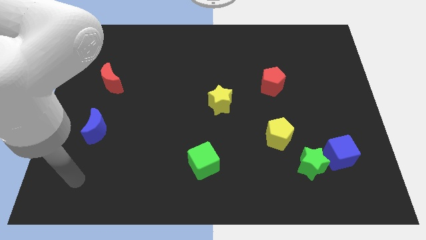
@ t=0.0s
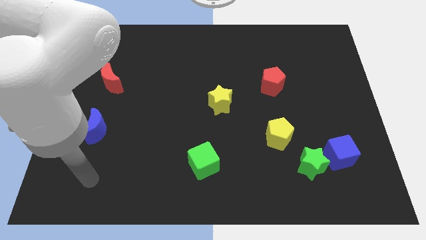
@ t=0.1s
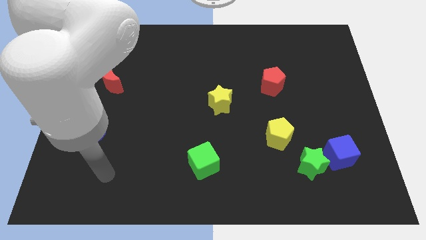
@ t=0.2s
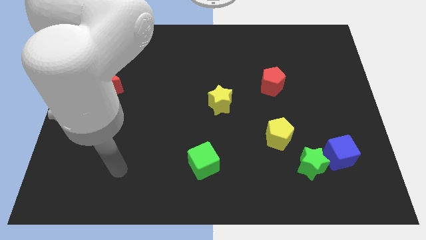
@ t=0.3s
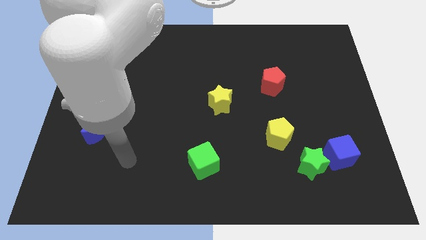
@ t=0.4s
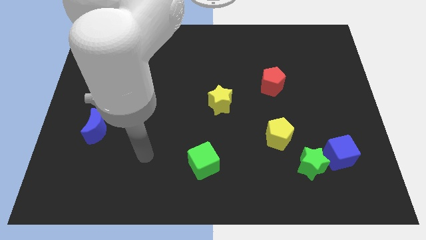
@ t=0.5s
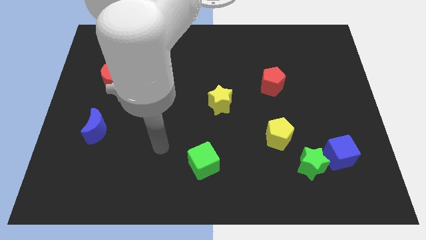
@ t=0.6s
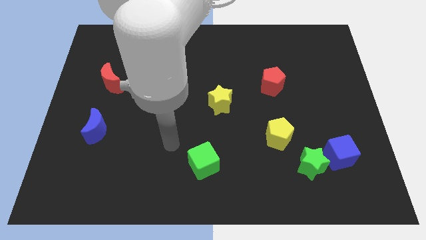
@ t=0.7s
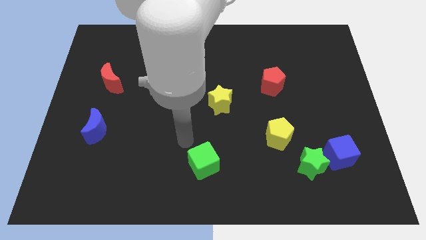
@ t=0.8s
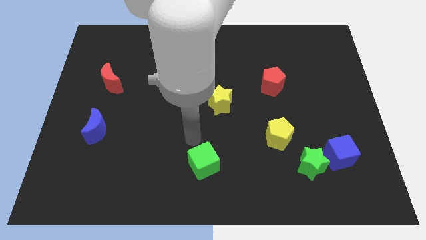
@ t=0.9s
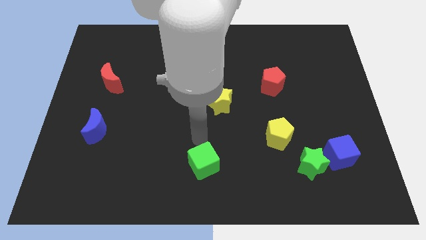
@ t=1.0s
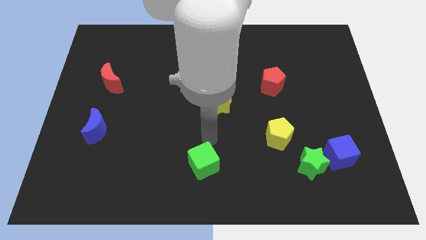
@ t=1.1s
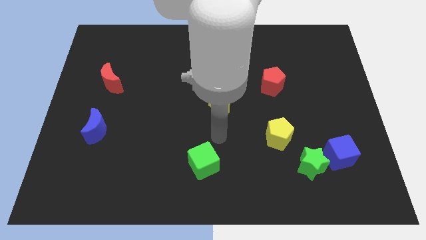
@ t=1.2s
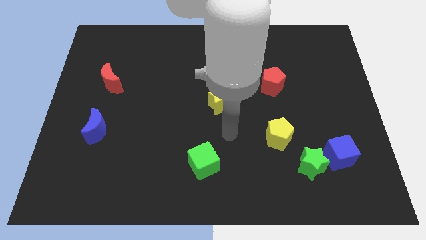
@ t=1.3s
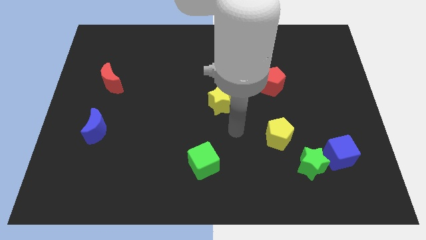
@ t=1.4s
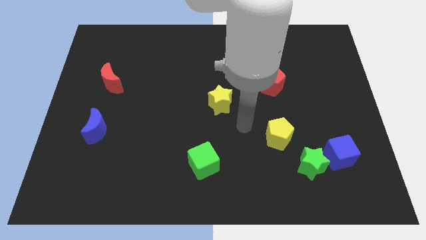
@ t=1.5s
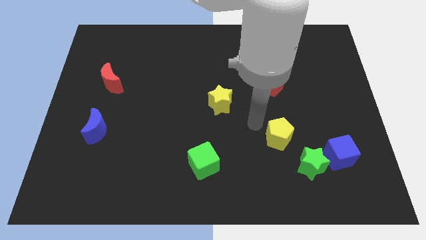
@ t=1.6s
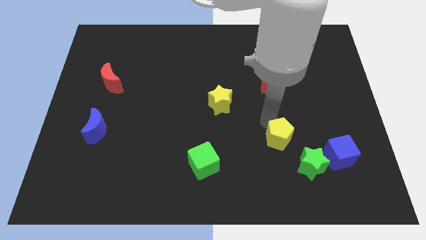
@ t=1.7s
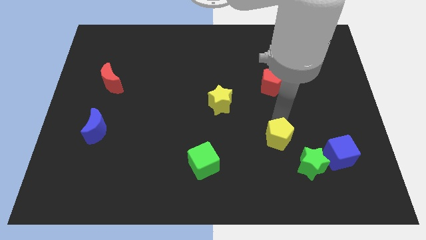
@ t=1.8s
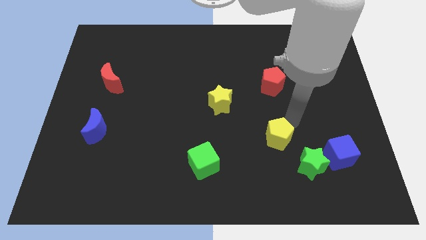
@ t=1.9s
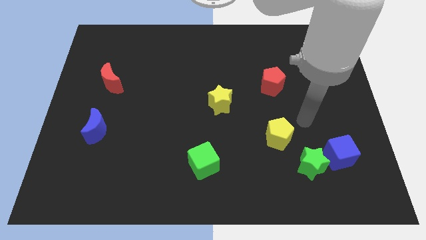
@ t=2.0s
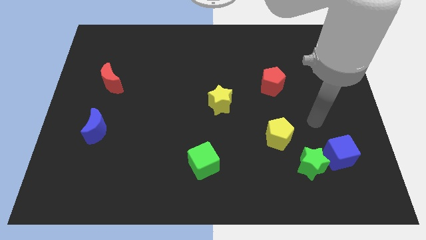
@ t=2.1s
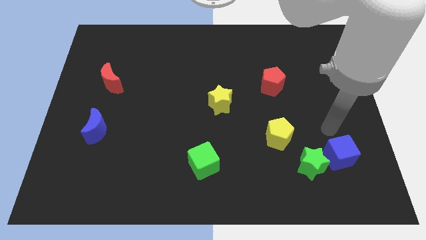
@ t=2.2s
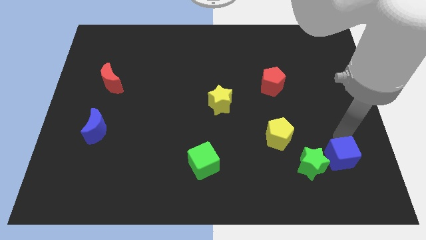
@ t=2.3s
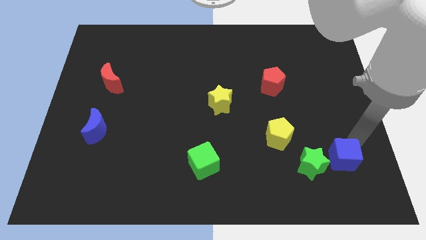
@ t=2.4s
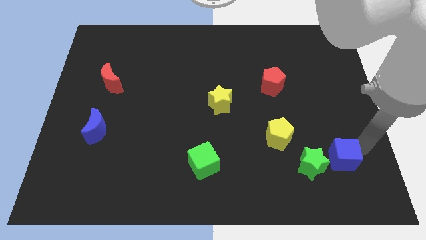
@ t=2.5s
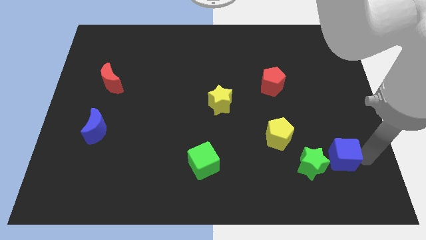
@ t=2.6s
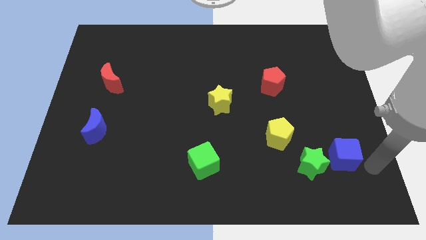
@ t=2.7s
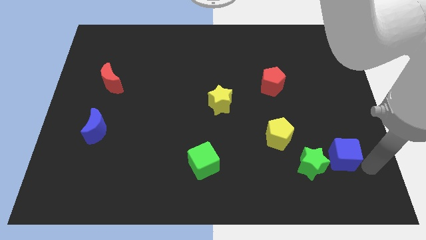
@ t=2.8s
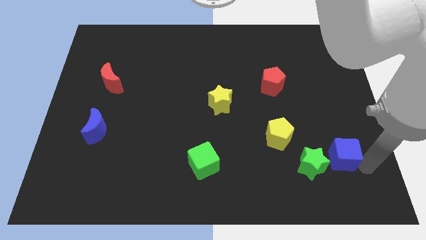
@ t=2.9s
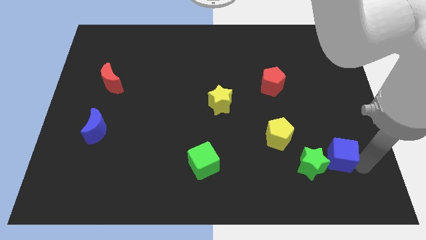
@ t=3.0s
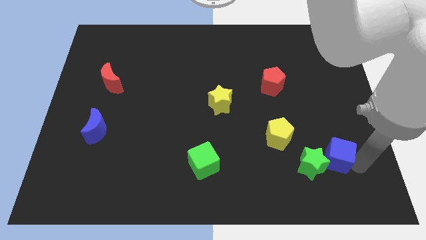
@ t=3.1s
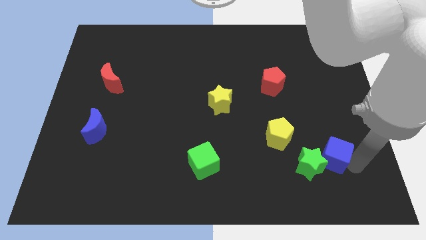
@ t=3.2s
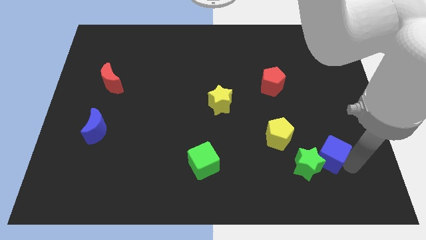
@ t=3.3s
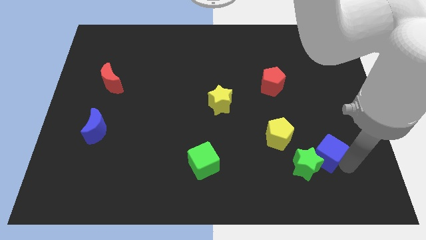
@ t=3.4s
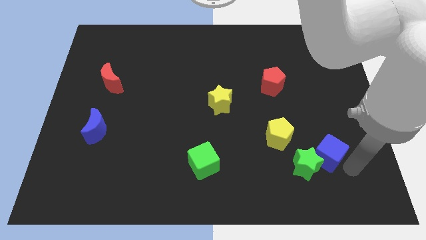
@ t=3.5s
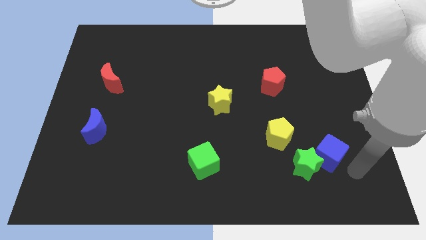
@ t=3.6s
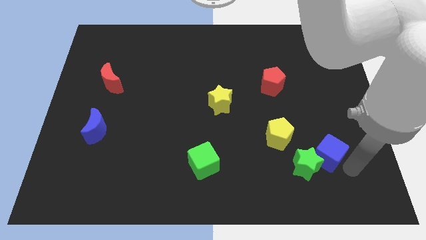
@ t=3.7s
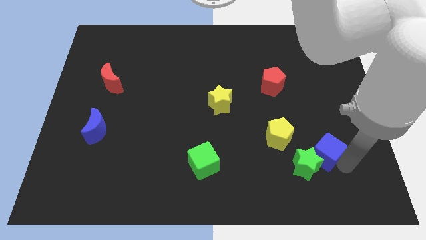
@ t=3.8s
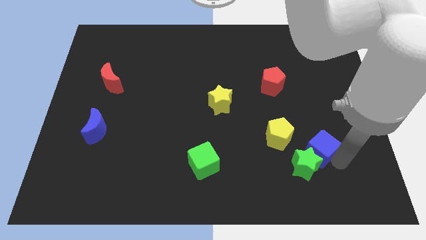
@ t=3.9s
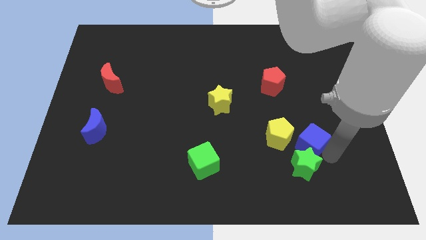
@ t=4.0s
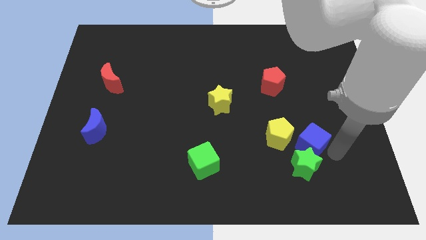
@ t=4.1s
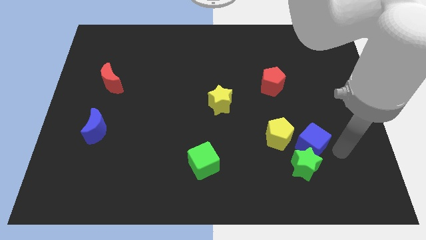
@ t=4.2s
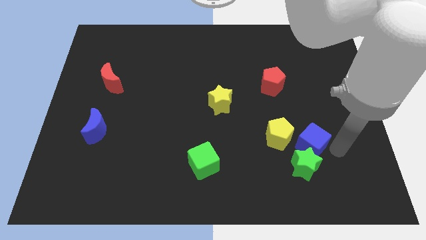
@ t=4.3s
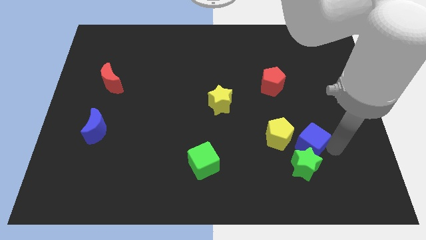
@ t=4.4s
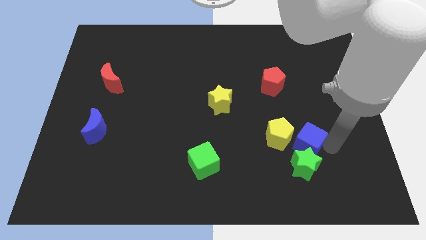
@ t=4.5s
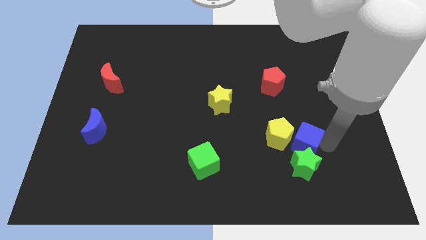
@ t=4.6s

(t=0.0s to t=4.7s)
move the blue cube close to the yellow pentagon

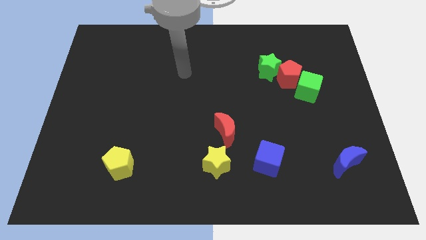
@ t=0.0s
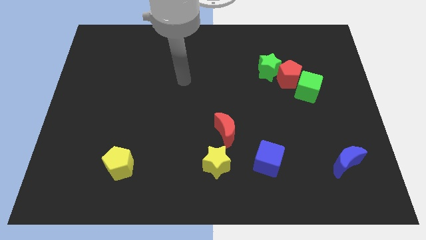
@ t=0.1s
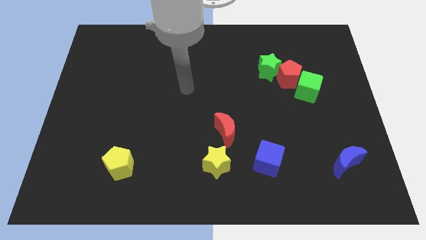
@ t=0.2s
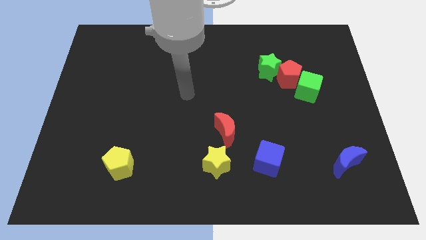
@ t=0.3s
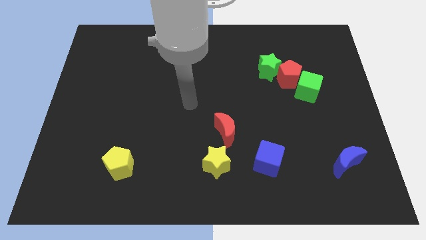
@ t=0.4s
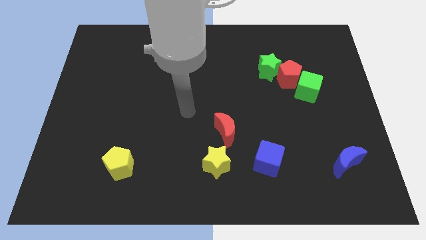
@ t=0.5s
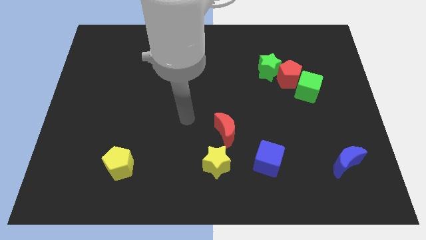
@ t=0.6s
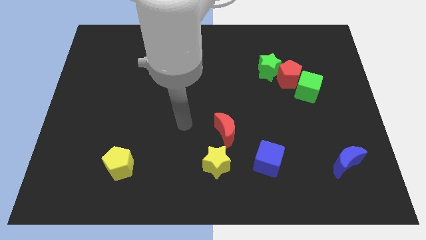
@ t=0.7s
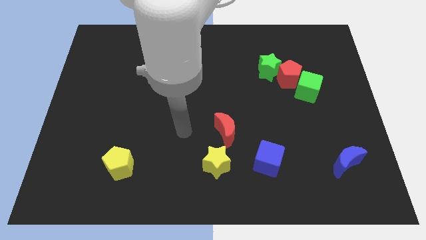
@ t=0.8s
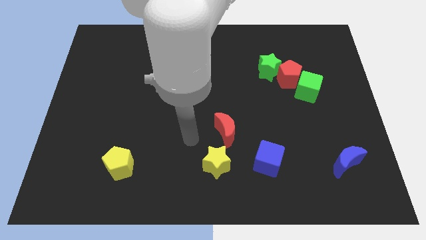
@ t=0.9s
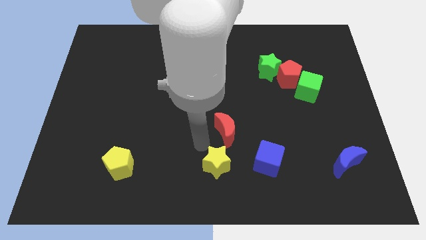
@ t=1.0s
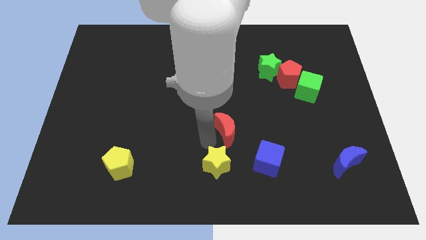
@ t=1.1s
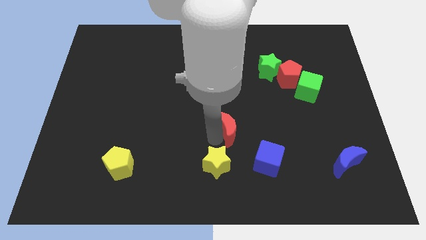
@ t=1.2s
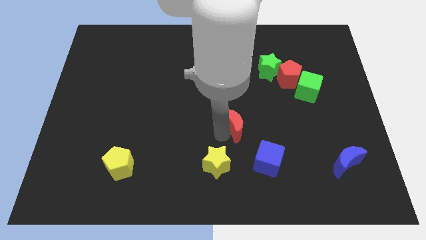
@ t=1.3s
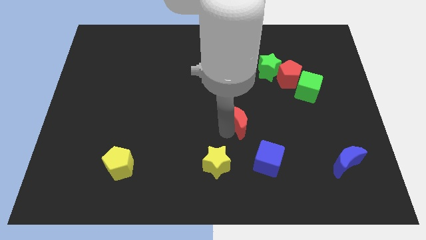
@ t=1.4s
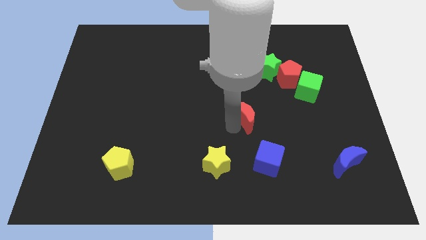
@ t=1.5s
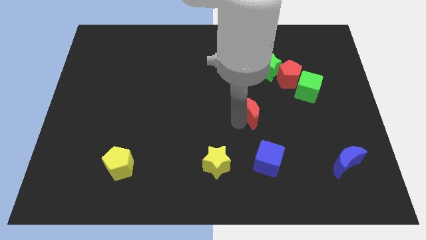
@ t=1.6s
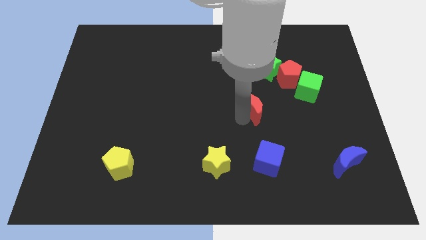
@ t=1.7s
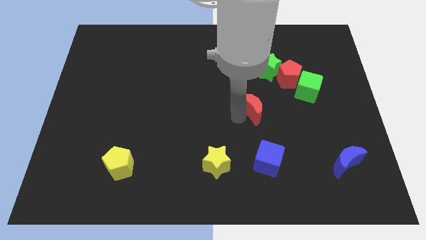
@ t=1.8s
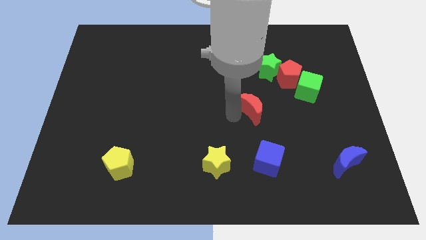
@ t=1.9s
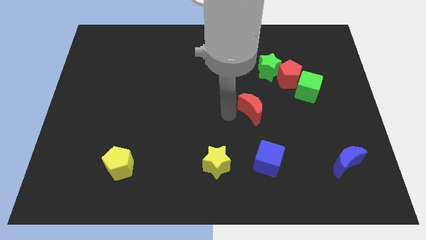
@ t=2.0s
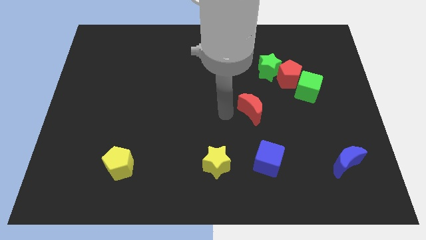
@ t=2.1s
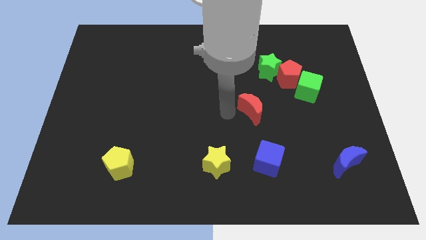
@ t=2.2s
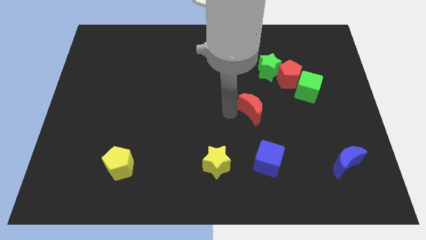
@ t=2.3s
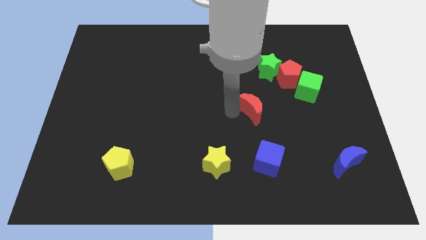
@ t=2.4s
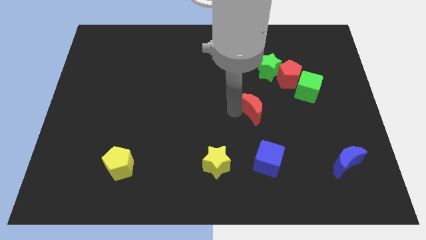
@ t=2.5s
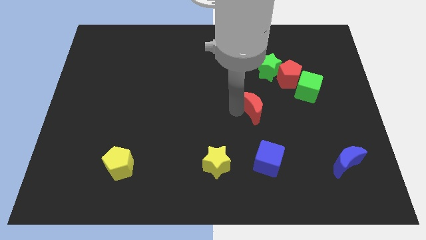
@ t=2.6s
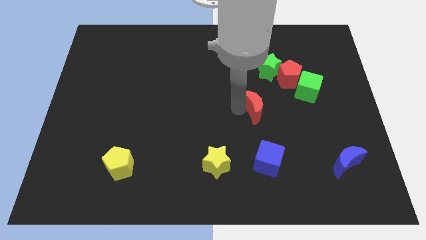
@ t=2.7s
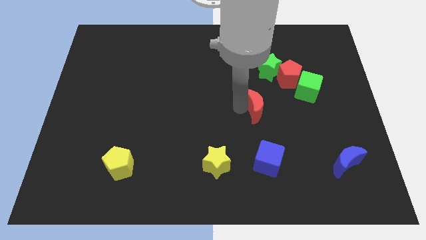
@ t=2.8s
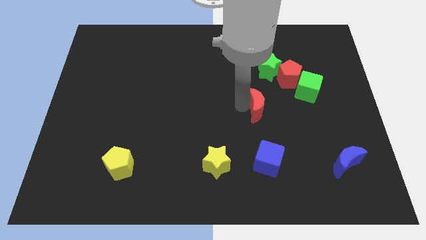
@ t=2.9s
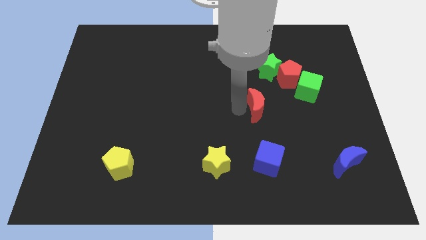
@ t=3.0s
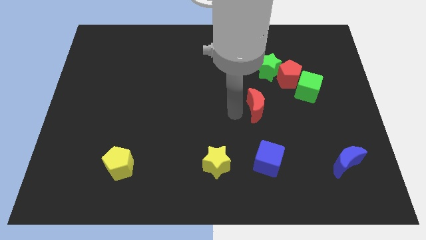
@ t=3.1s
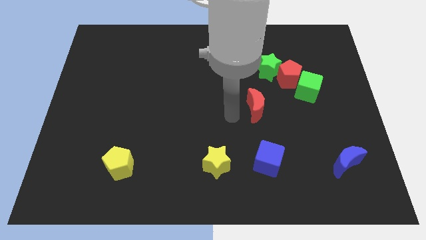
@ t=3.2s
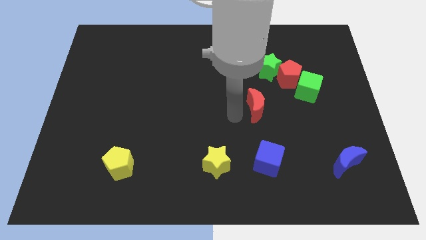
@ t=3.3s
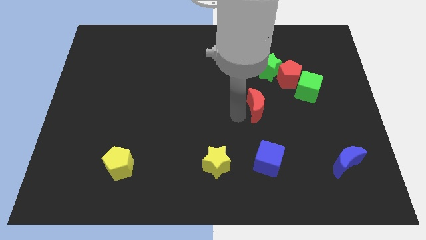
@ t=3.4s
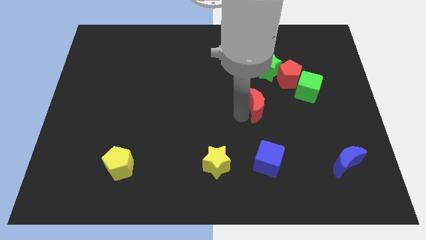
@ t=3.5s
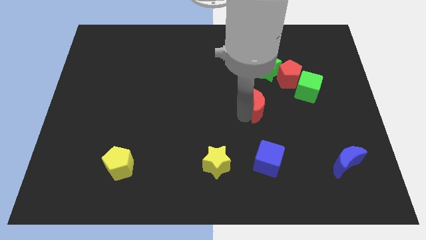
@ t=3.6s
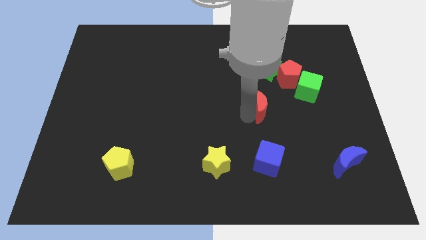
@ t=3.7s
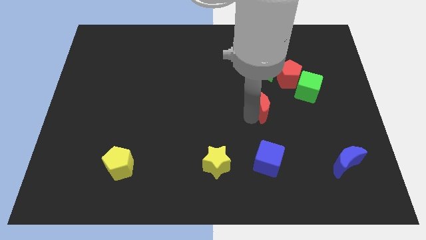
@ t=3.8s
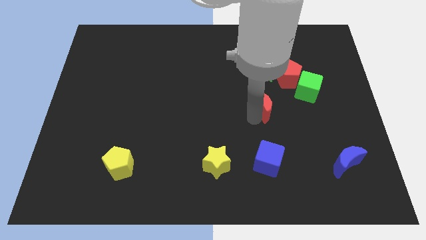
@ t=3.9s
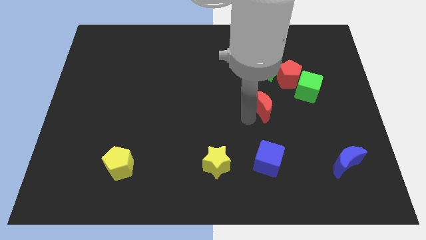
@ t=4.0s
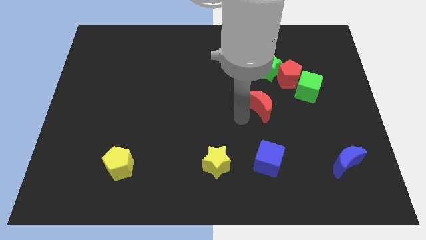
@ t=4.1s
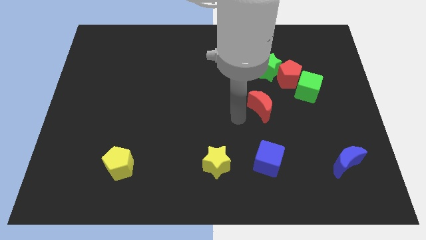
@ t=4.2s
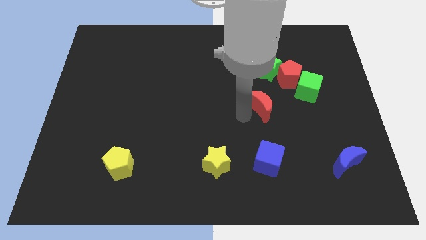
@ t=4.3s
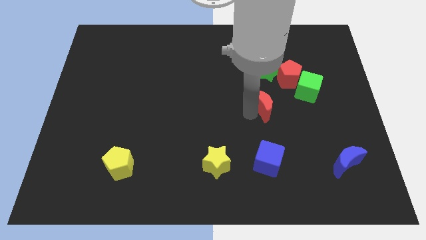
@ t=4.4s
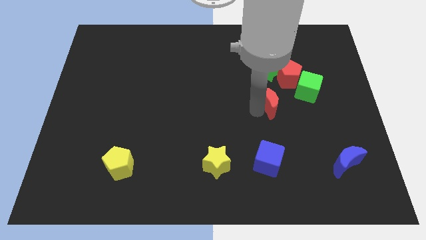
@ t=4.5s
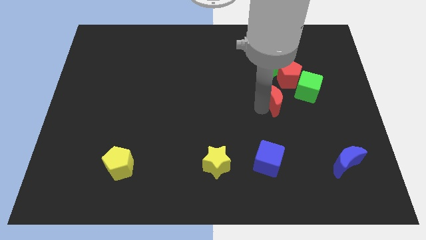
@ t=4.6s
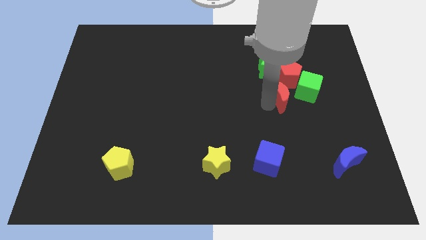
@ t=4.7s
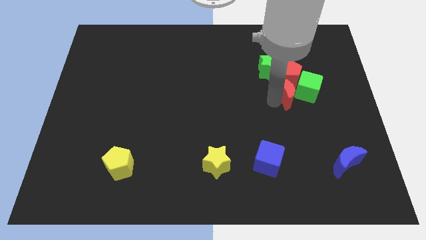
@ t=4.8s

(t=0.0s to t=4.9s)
push the red moon next to the green cube
